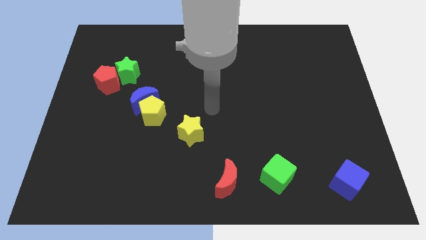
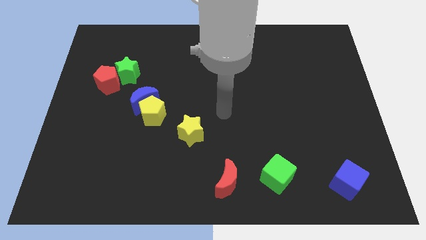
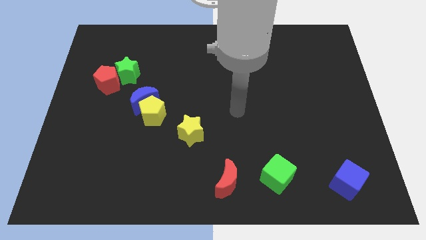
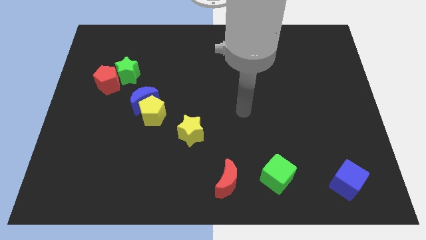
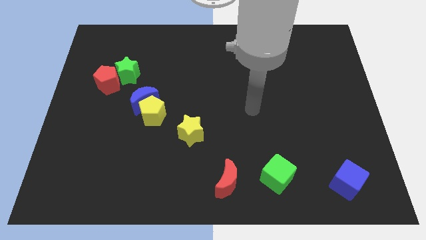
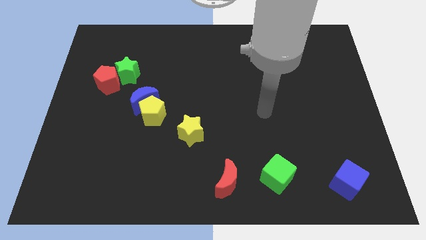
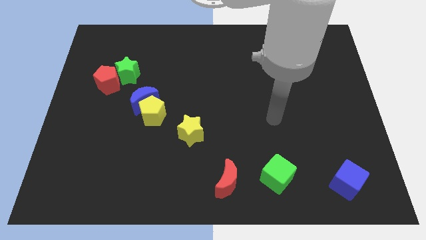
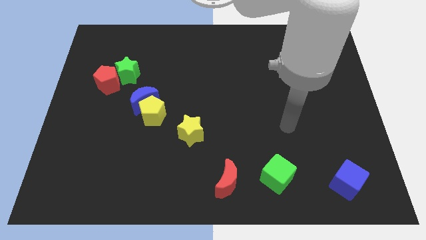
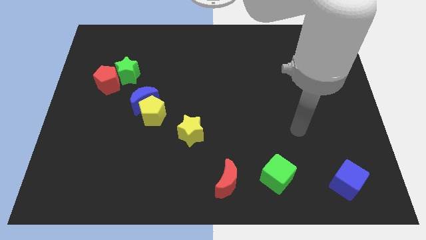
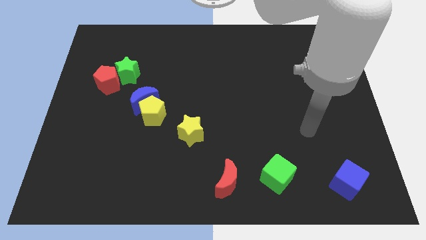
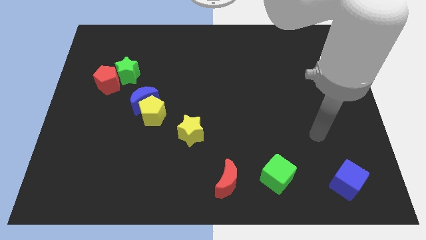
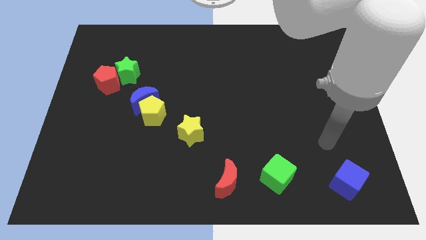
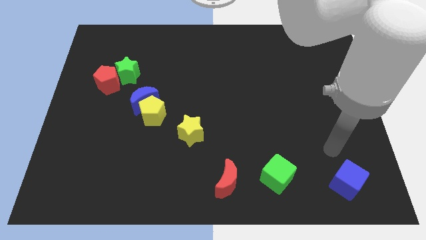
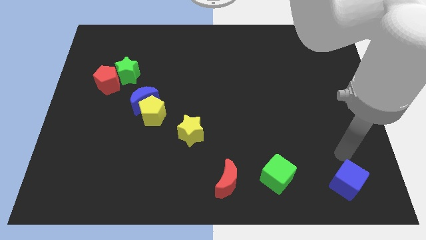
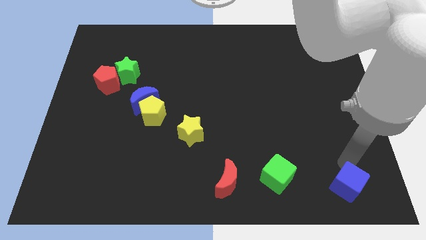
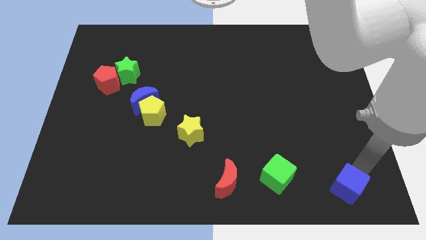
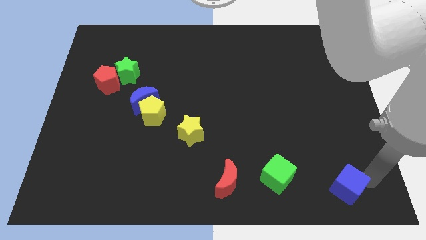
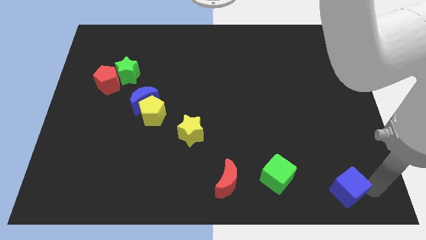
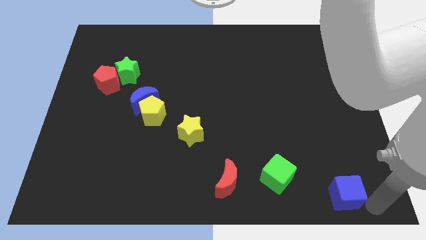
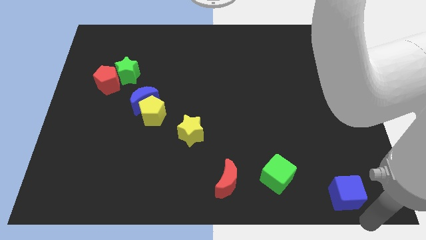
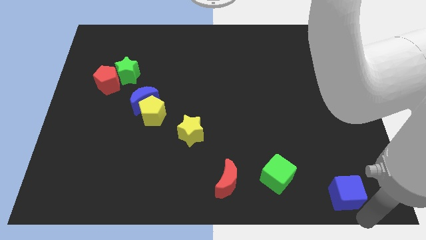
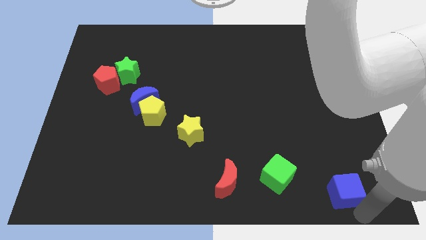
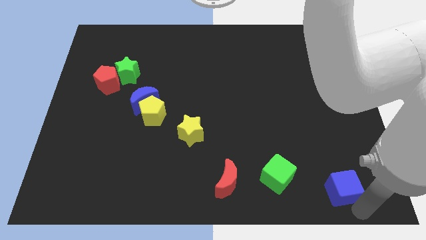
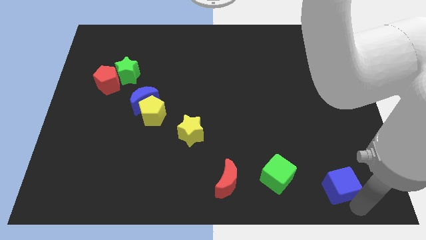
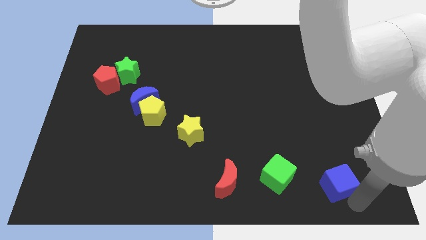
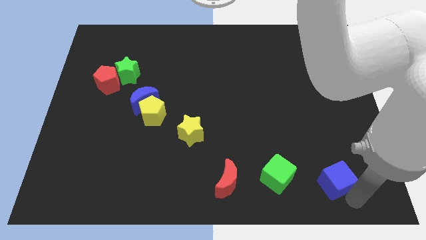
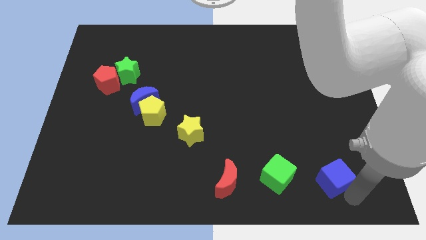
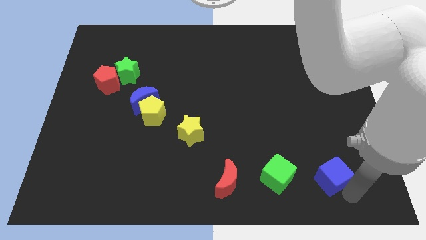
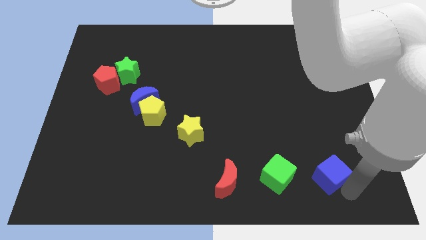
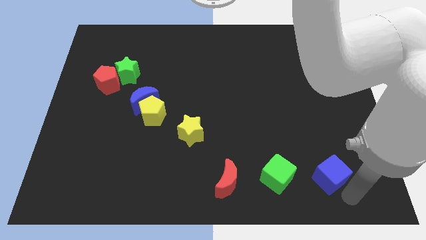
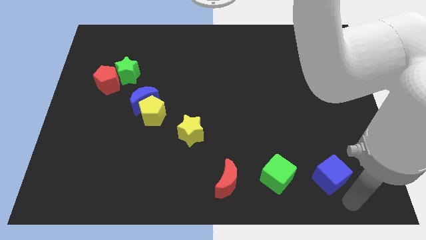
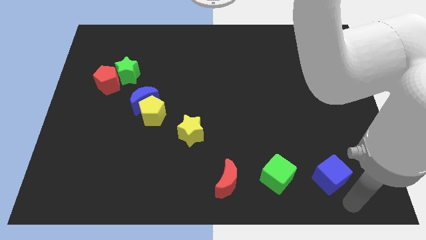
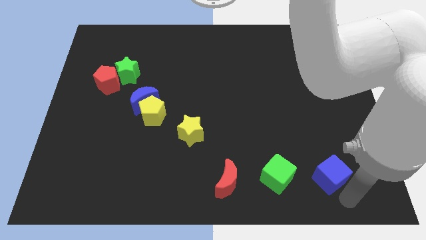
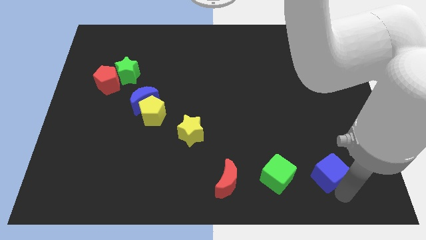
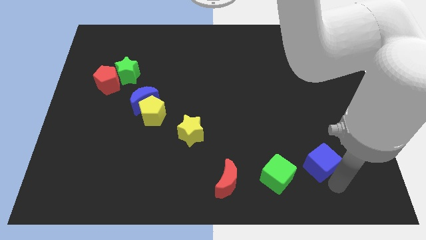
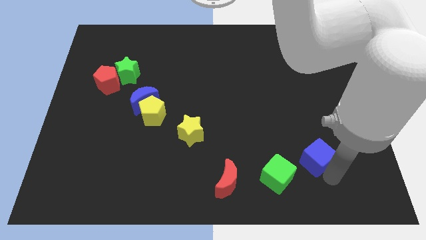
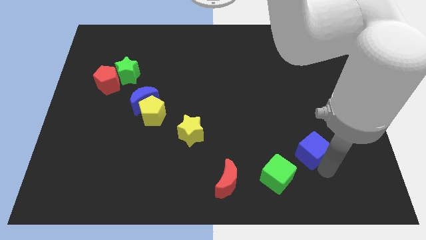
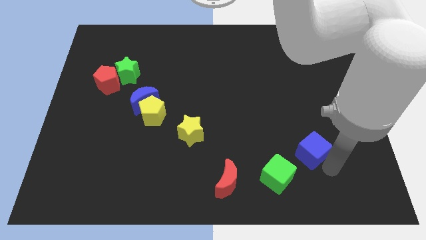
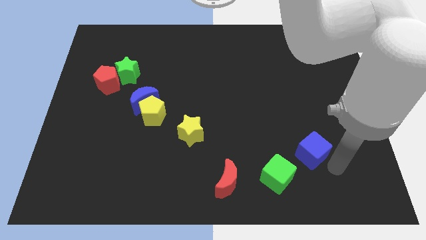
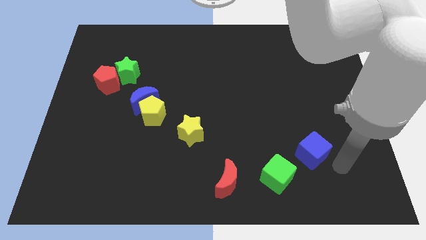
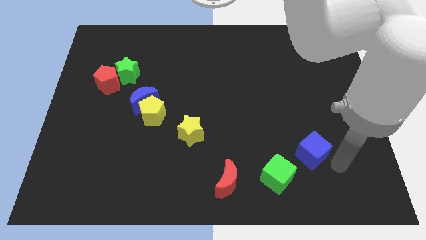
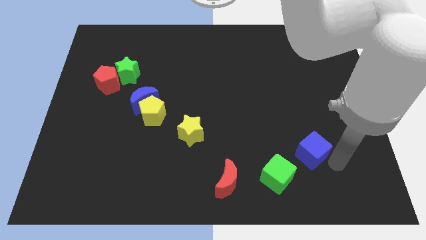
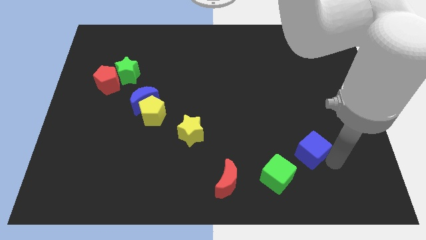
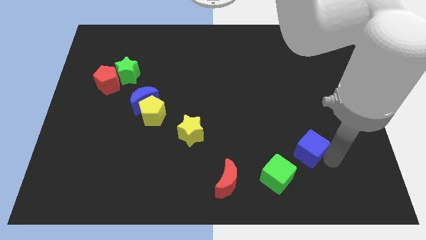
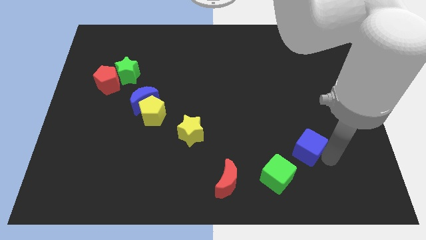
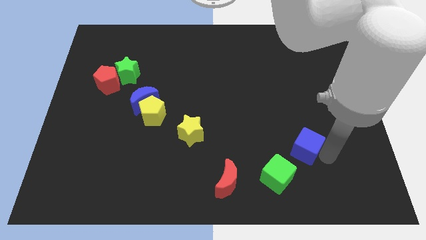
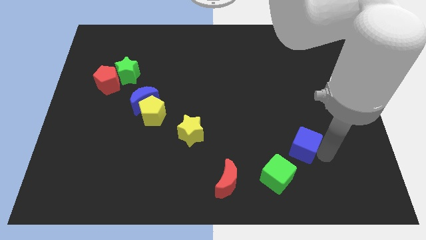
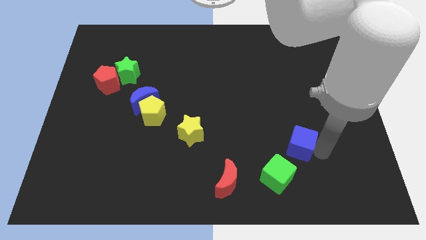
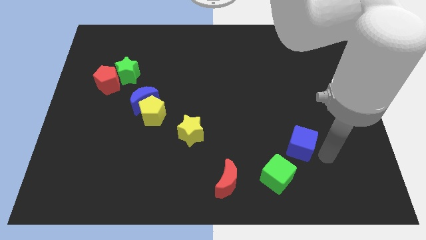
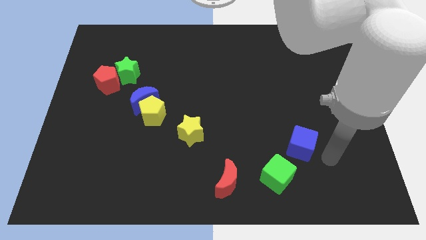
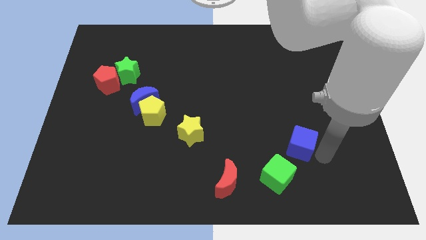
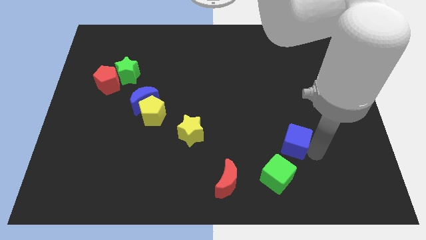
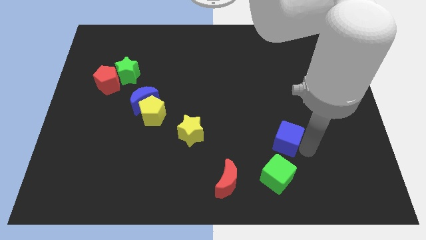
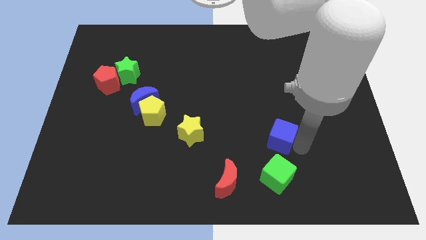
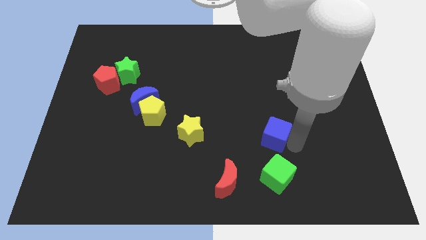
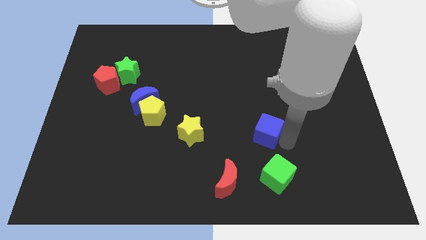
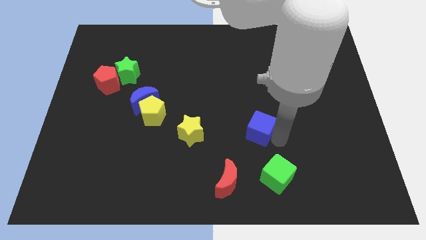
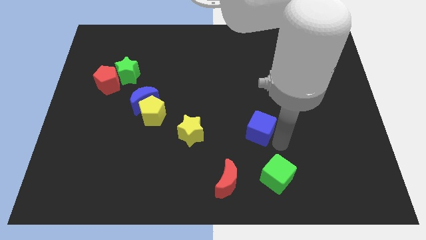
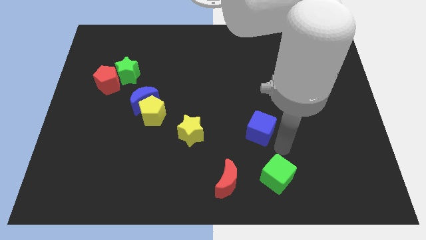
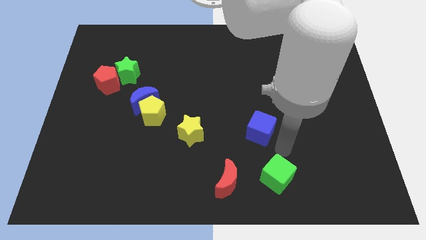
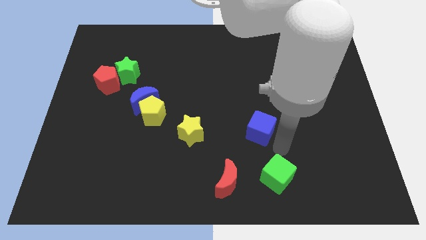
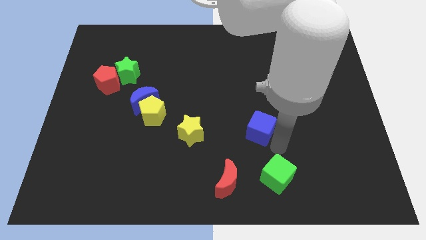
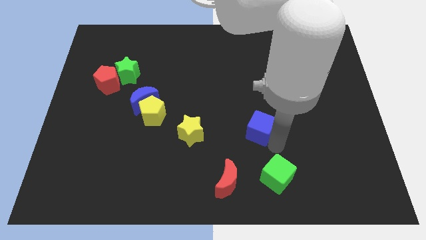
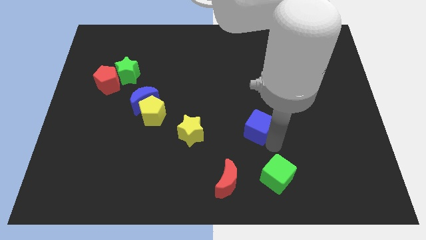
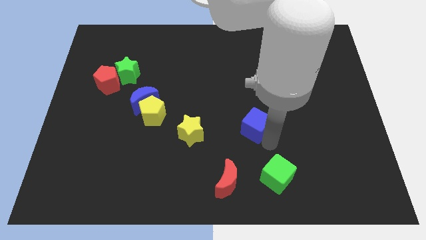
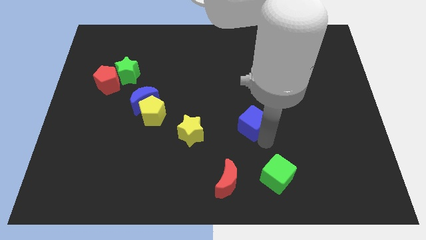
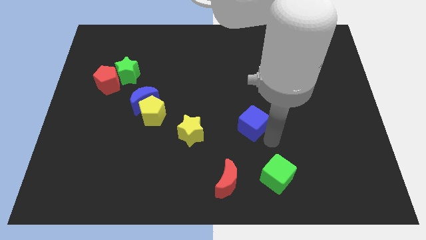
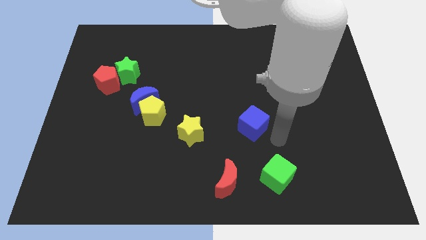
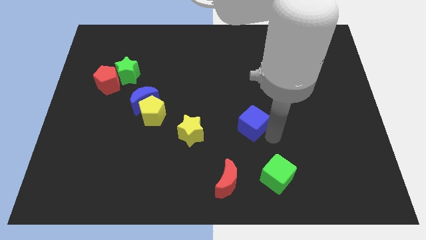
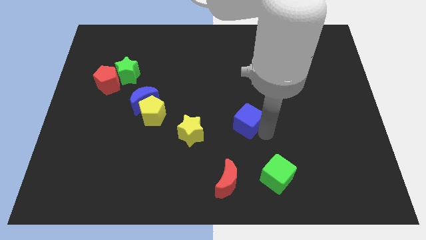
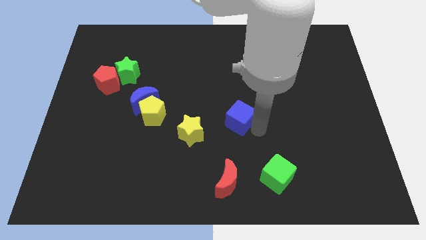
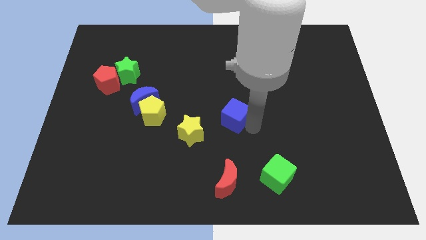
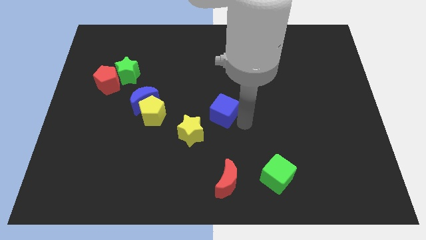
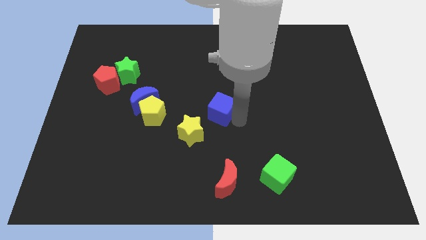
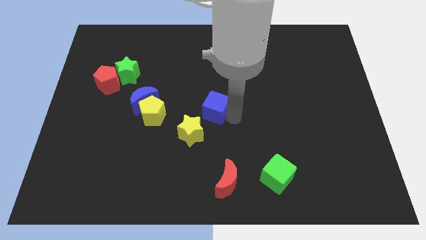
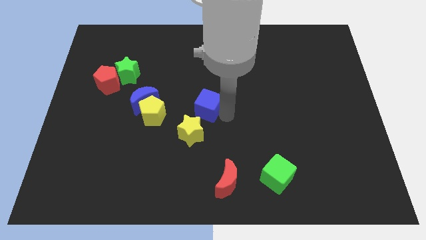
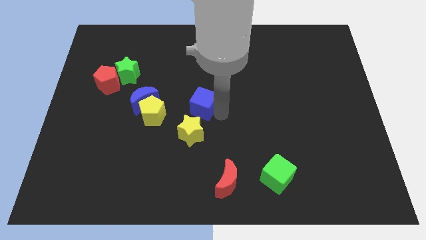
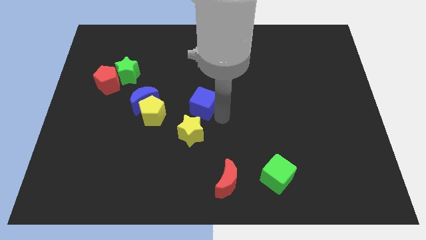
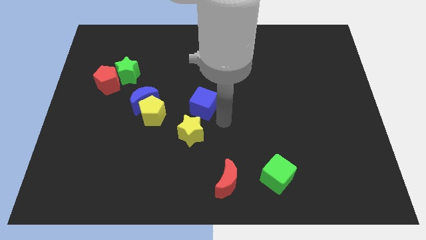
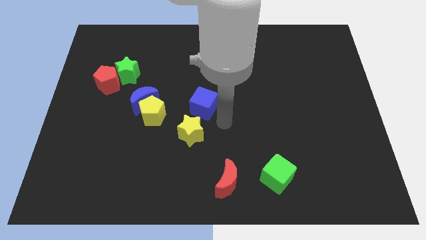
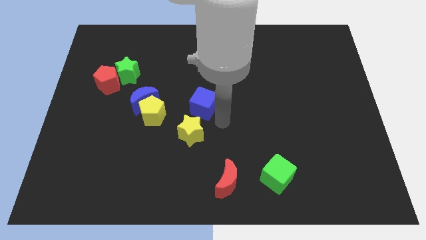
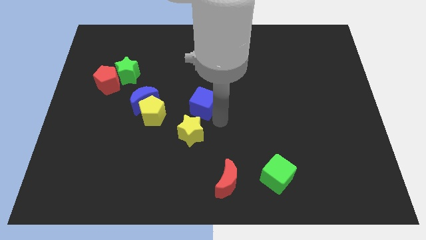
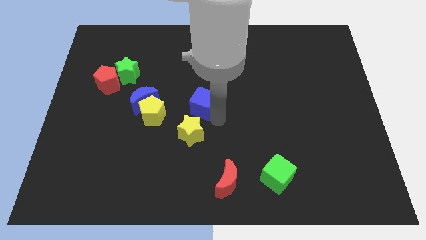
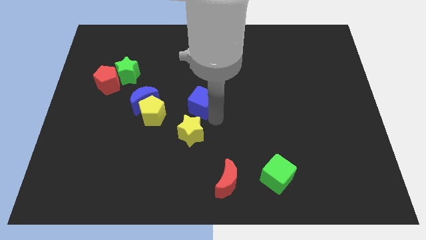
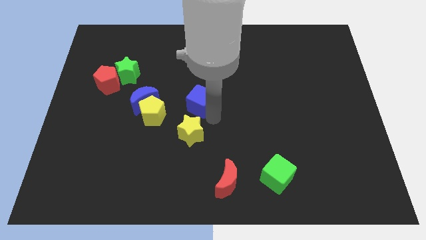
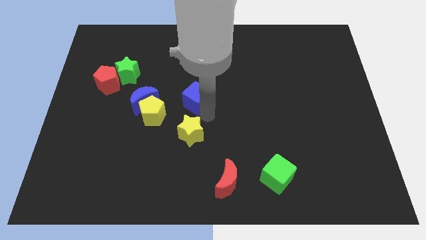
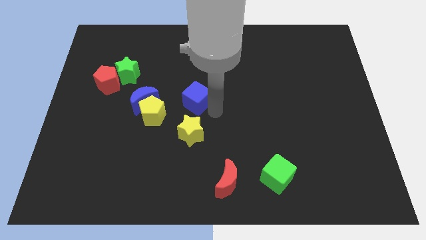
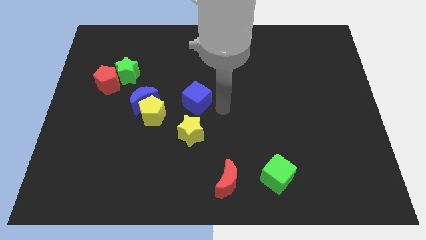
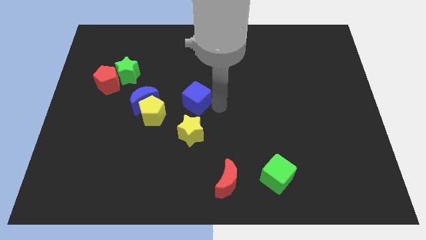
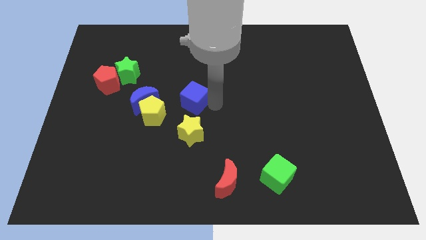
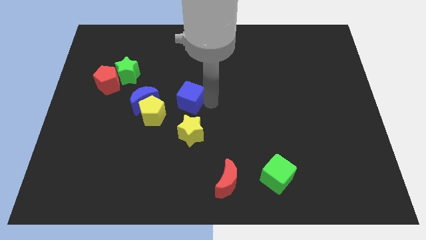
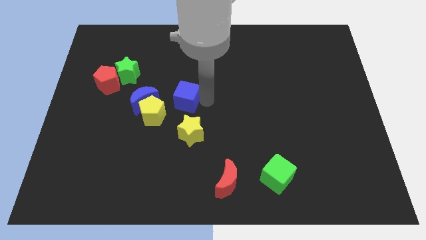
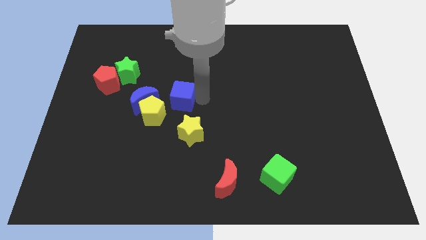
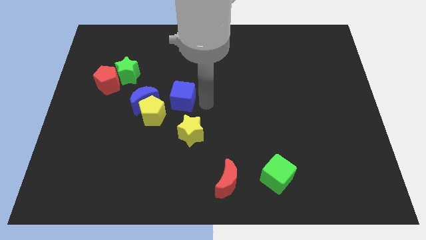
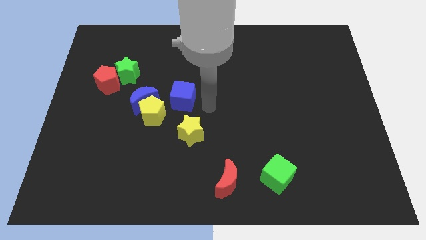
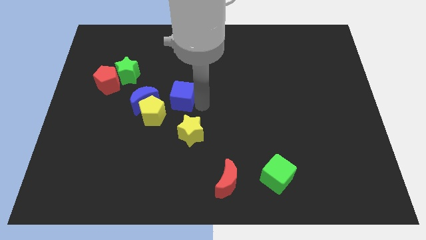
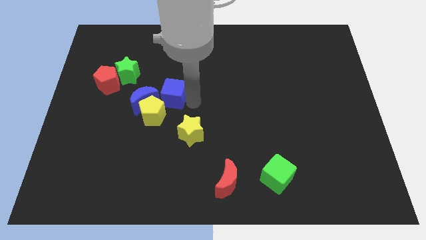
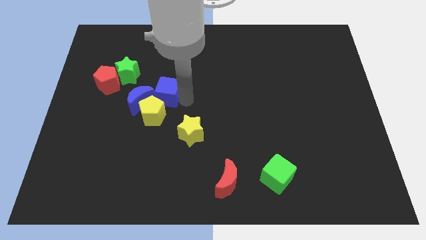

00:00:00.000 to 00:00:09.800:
put the blue cube to the bottom right side of the green star
